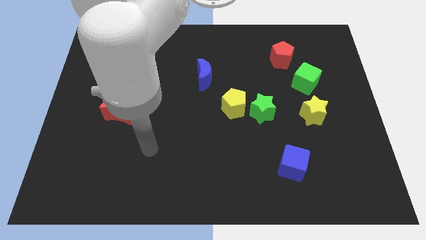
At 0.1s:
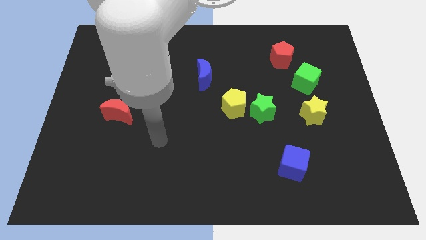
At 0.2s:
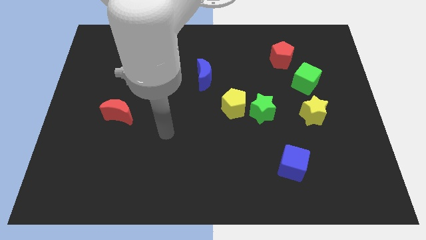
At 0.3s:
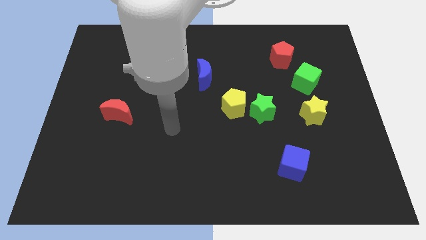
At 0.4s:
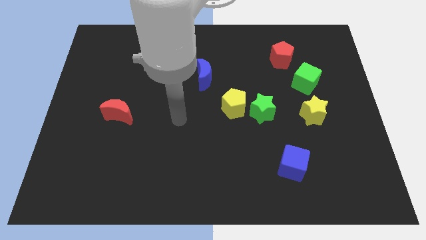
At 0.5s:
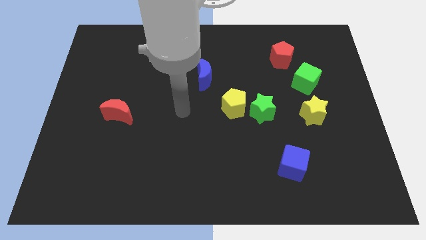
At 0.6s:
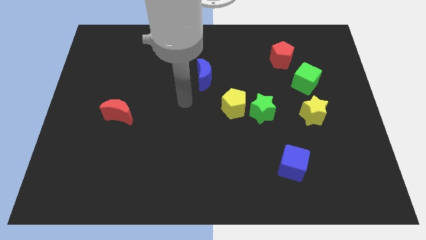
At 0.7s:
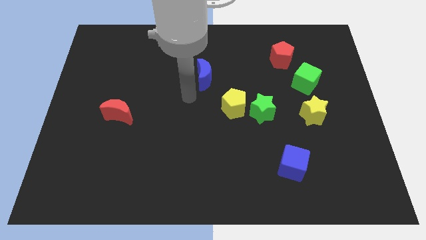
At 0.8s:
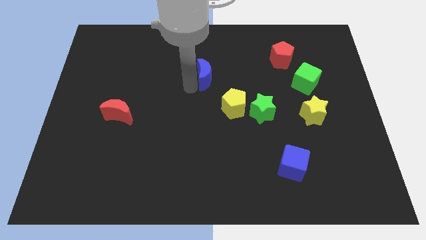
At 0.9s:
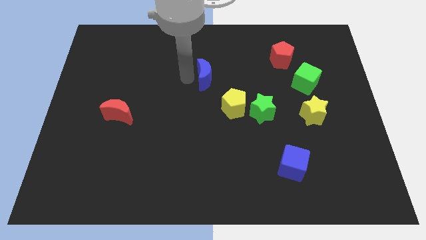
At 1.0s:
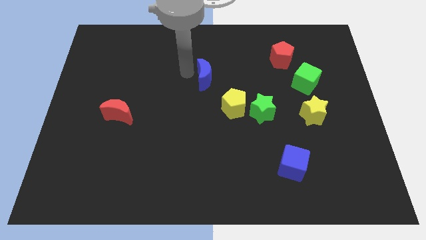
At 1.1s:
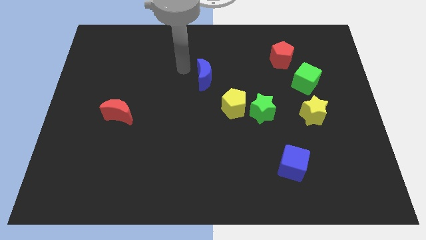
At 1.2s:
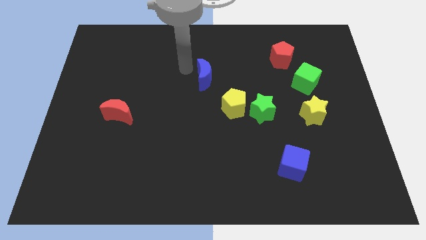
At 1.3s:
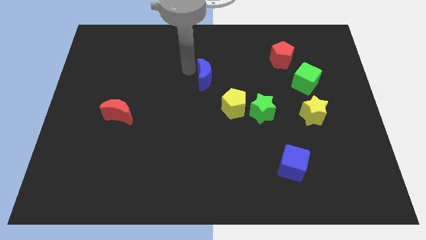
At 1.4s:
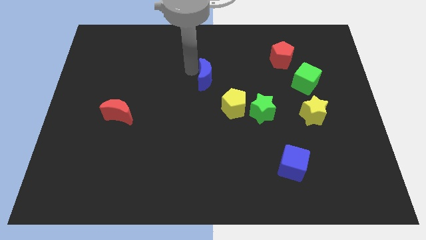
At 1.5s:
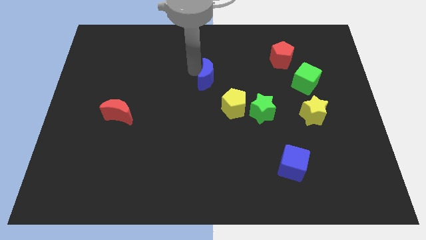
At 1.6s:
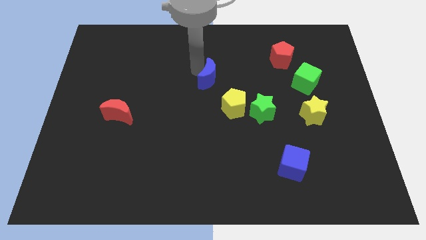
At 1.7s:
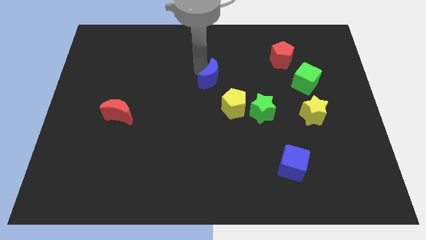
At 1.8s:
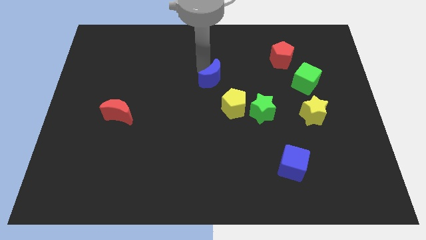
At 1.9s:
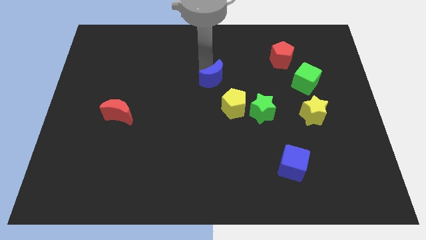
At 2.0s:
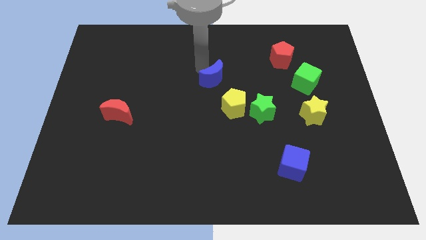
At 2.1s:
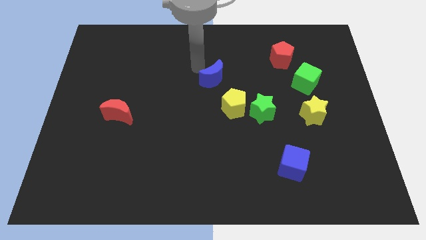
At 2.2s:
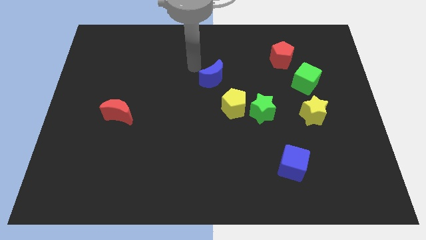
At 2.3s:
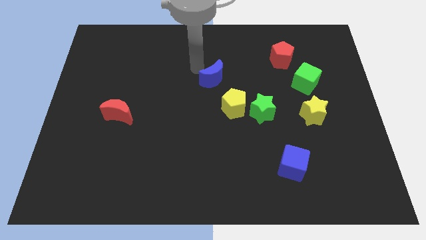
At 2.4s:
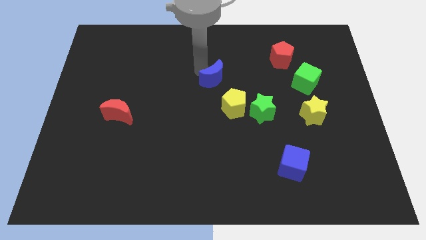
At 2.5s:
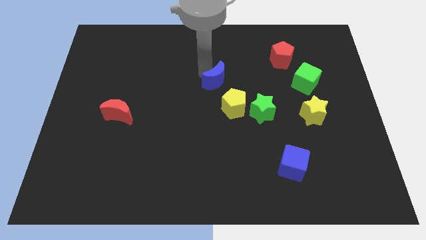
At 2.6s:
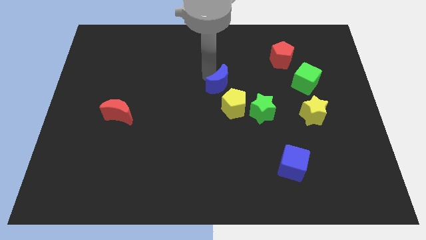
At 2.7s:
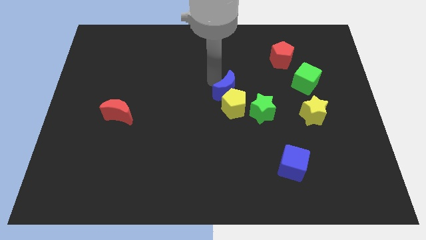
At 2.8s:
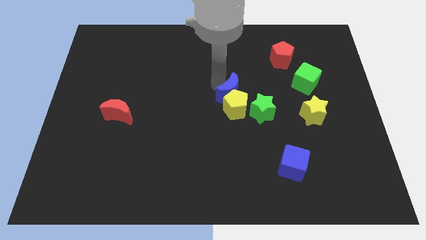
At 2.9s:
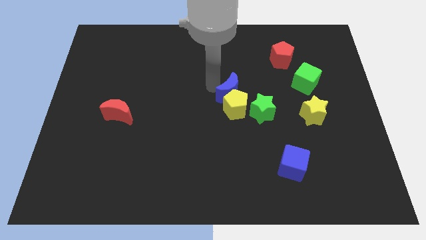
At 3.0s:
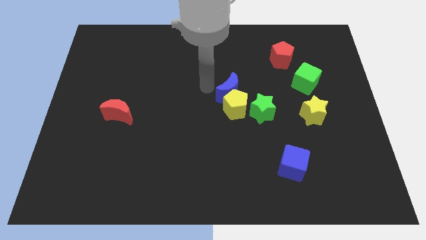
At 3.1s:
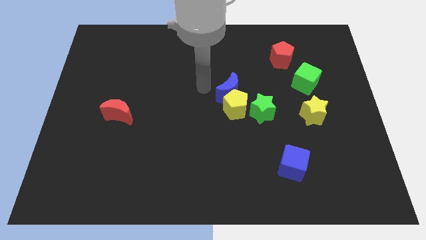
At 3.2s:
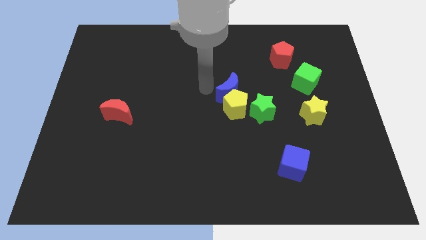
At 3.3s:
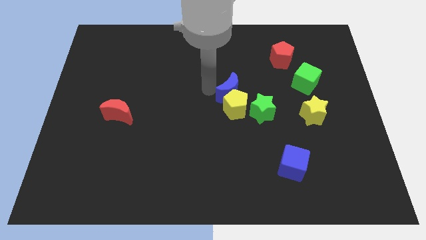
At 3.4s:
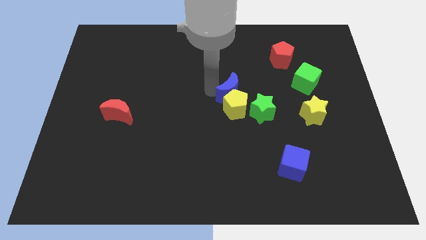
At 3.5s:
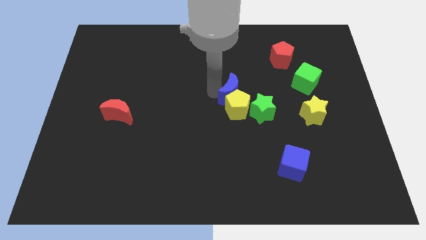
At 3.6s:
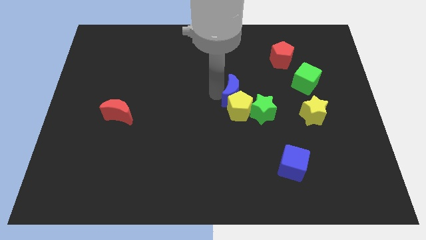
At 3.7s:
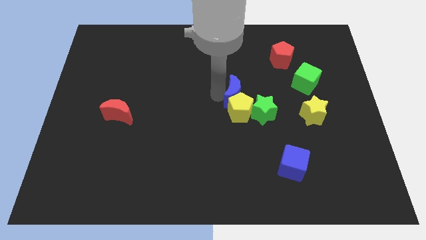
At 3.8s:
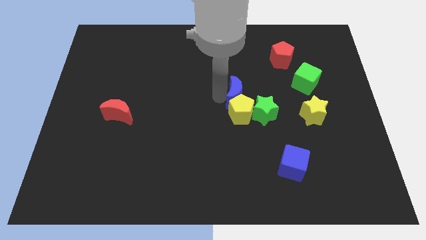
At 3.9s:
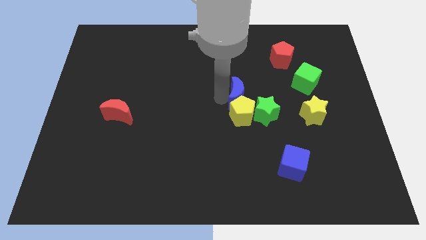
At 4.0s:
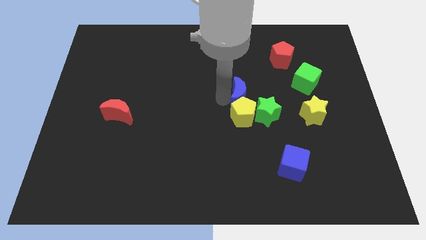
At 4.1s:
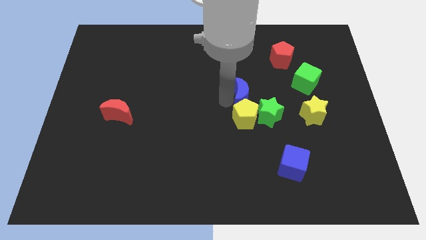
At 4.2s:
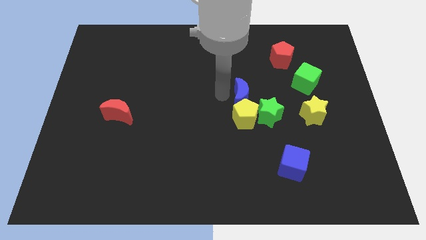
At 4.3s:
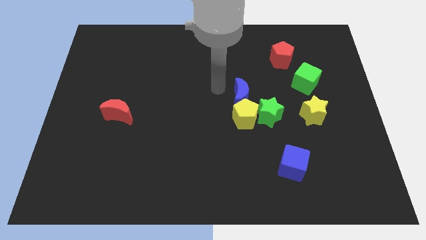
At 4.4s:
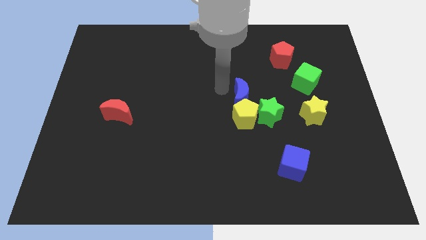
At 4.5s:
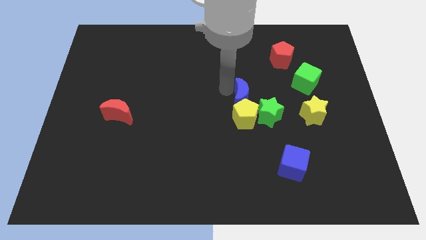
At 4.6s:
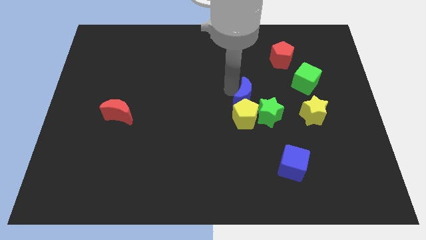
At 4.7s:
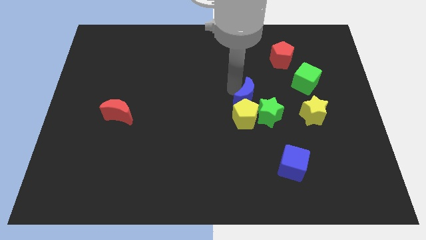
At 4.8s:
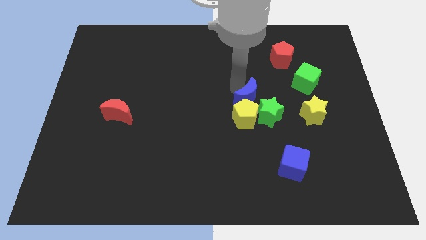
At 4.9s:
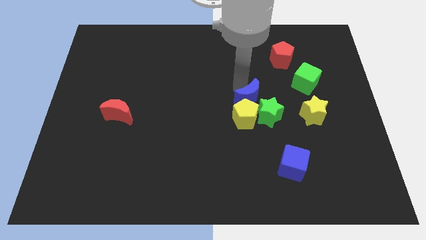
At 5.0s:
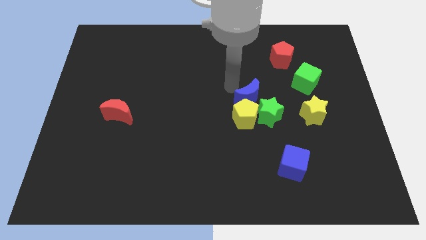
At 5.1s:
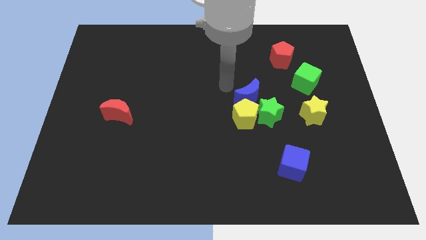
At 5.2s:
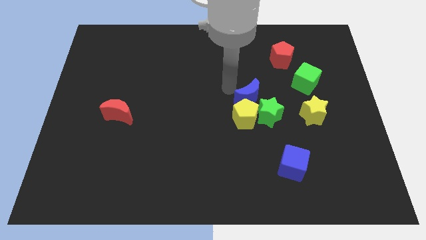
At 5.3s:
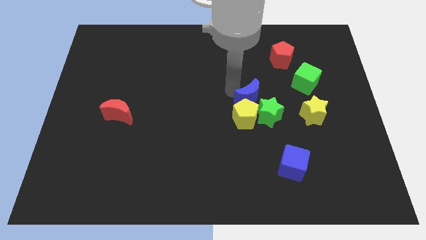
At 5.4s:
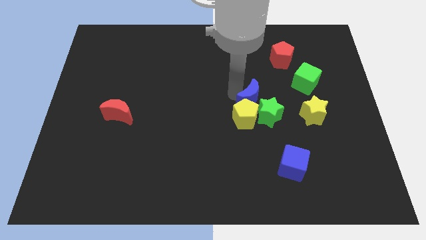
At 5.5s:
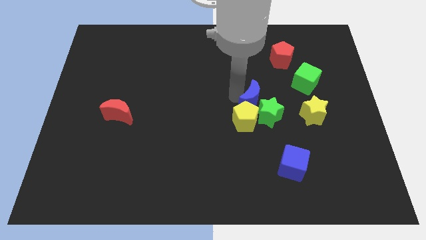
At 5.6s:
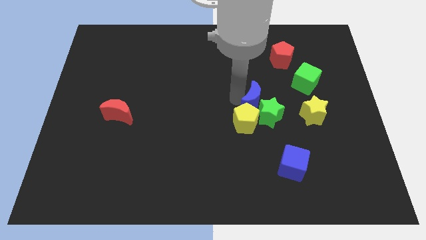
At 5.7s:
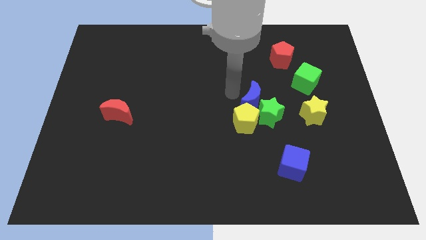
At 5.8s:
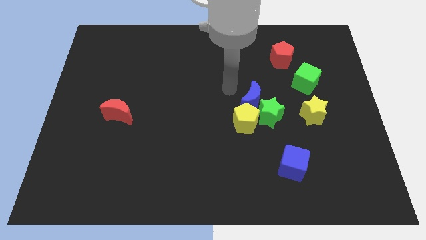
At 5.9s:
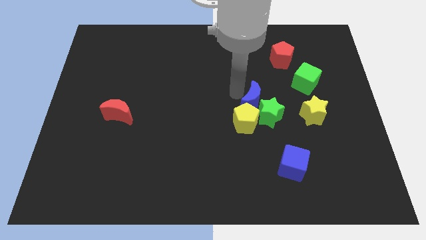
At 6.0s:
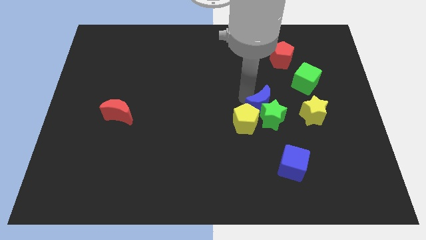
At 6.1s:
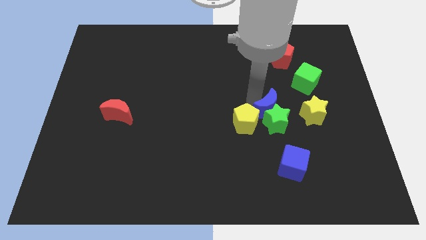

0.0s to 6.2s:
push the blue moon just right of the yellow pentagon

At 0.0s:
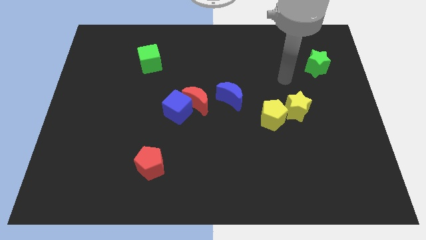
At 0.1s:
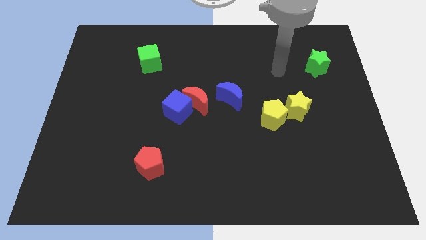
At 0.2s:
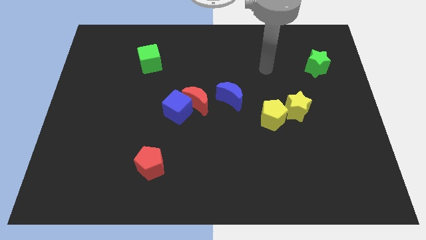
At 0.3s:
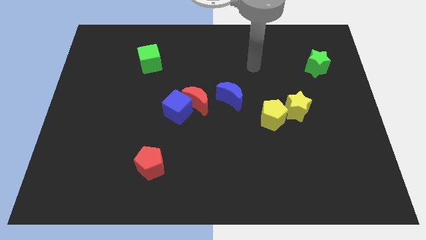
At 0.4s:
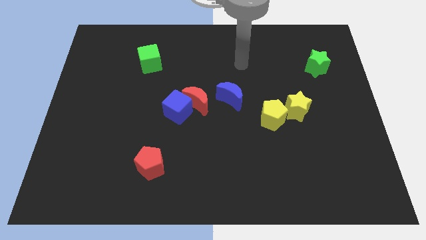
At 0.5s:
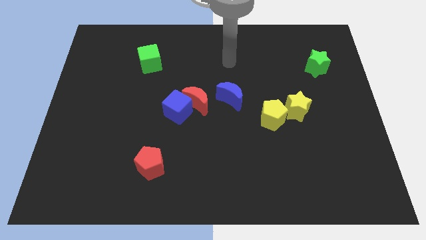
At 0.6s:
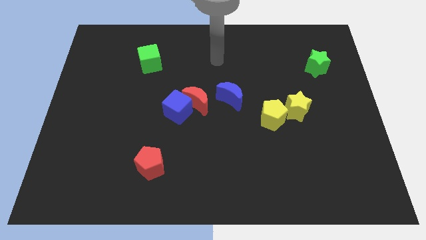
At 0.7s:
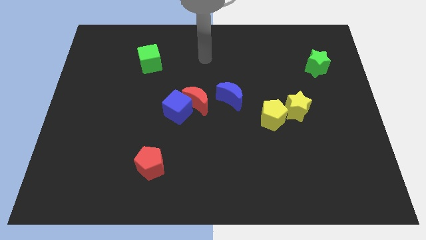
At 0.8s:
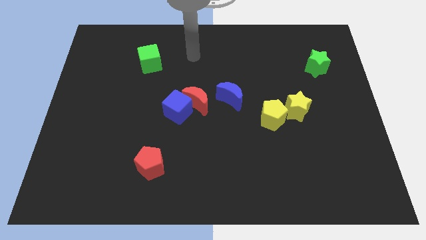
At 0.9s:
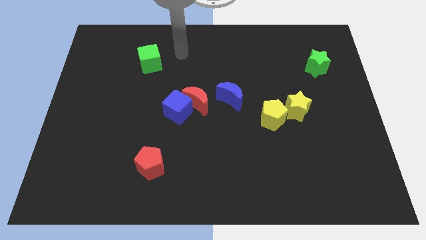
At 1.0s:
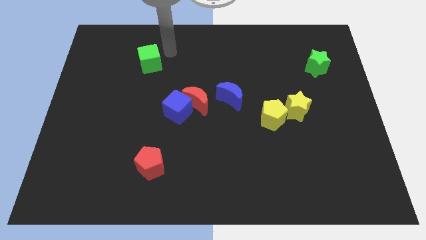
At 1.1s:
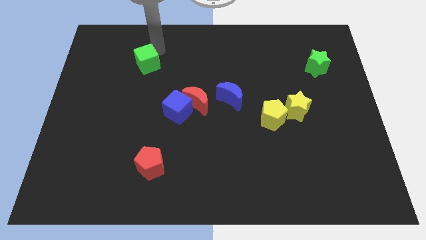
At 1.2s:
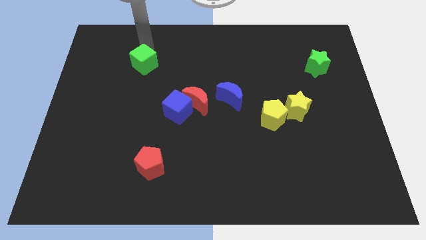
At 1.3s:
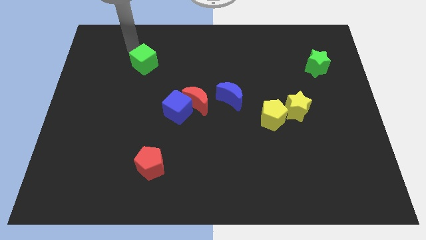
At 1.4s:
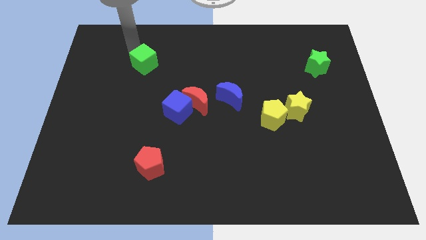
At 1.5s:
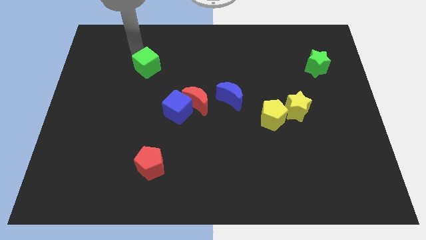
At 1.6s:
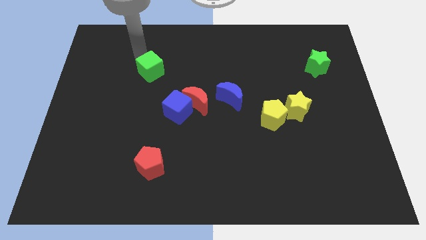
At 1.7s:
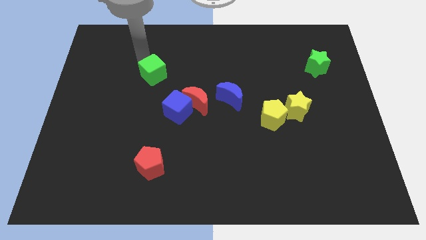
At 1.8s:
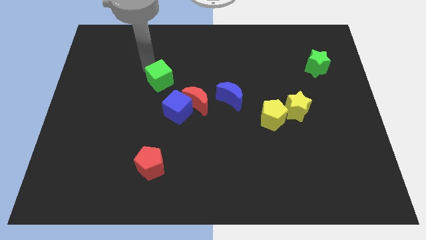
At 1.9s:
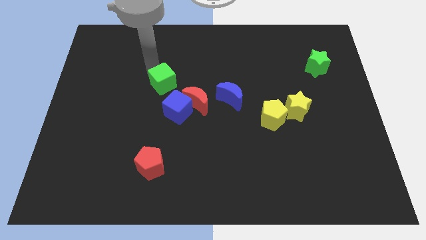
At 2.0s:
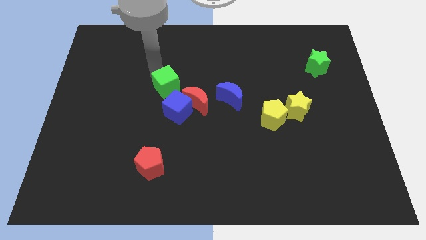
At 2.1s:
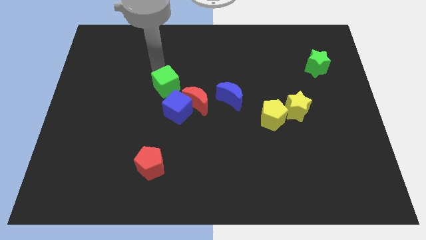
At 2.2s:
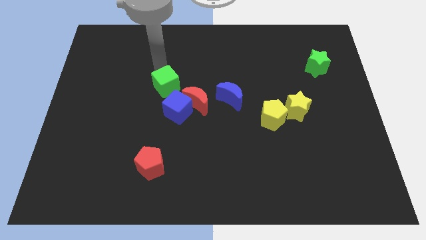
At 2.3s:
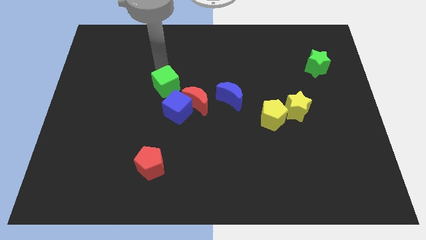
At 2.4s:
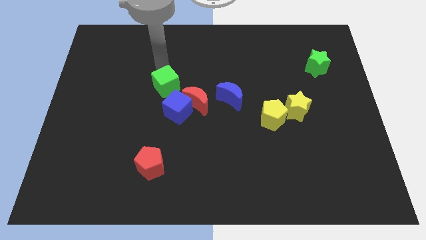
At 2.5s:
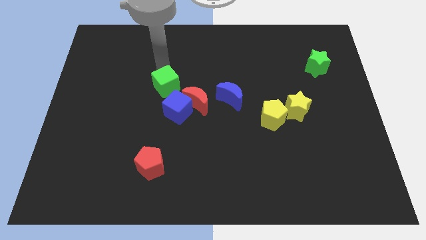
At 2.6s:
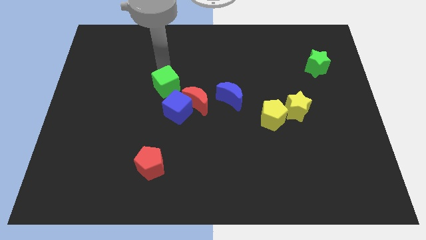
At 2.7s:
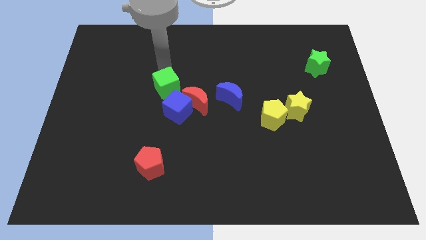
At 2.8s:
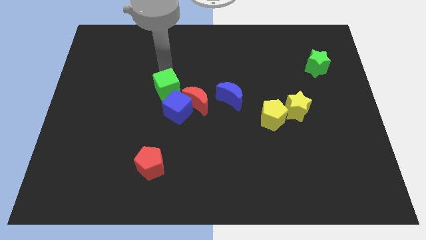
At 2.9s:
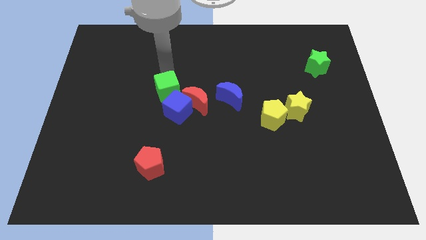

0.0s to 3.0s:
slide the green cube to the left side of the blue moon
